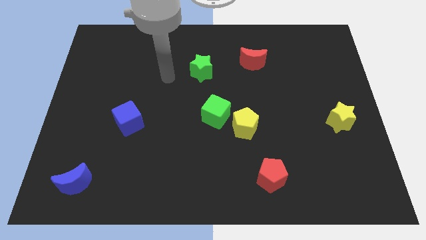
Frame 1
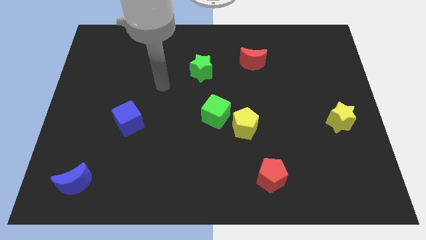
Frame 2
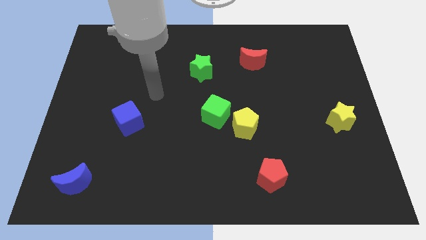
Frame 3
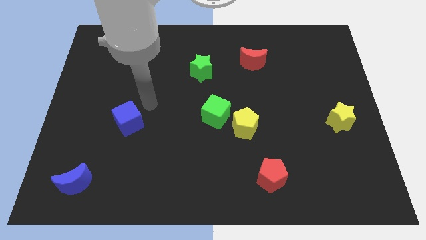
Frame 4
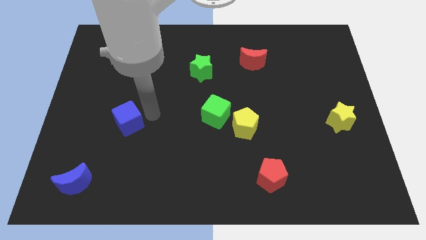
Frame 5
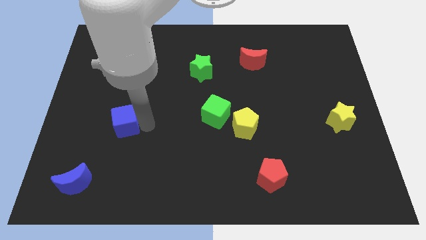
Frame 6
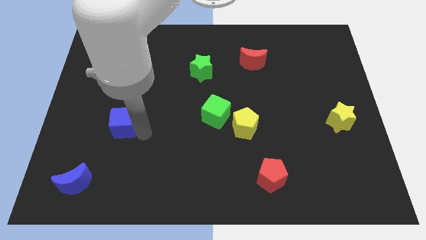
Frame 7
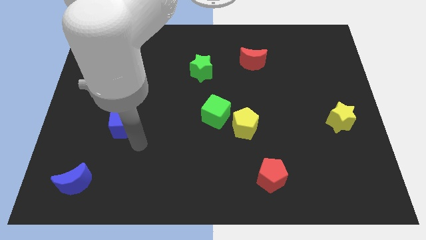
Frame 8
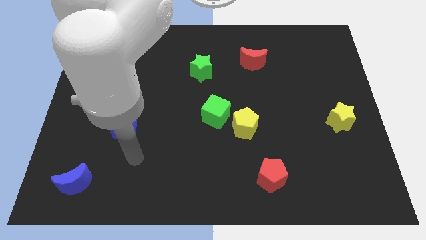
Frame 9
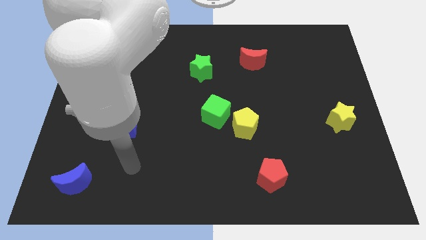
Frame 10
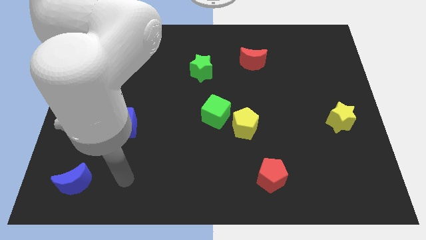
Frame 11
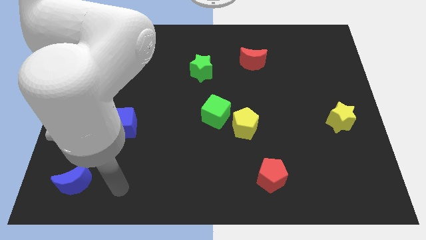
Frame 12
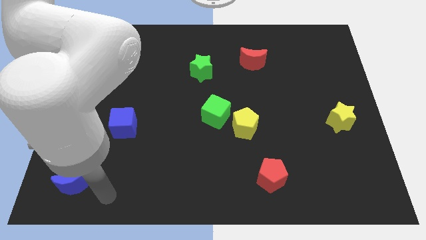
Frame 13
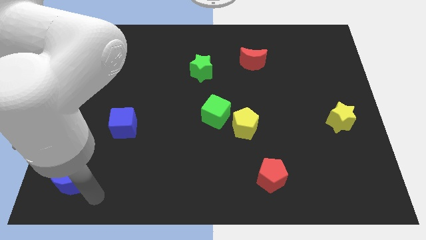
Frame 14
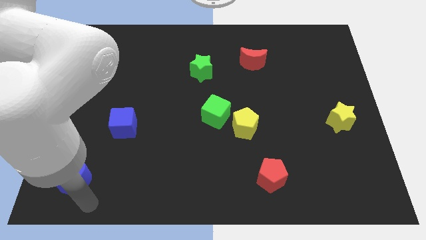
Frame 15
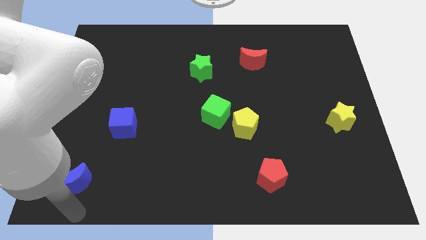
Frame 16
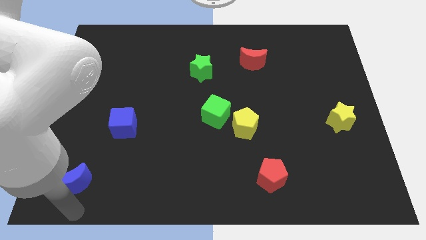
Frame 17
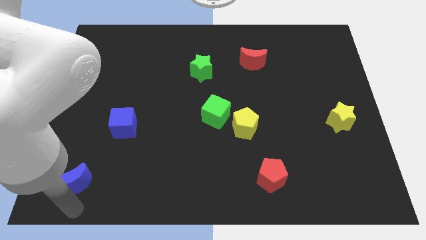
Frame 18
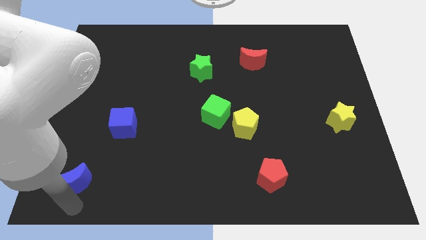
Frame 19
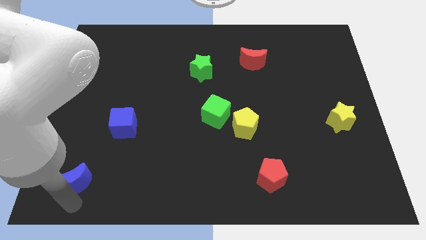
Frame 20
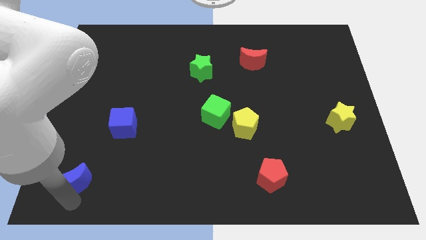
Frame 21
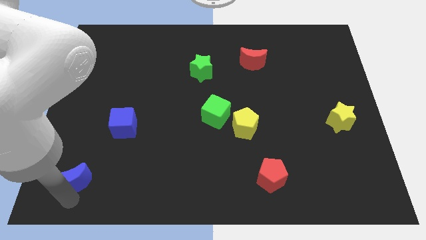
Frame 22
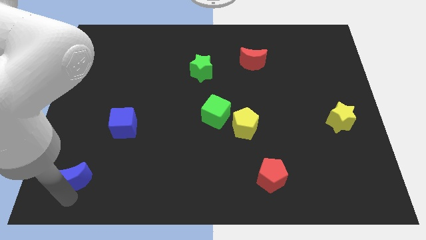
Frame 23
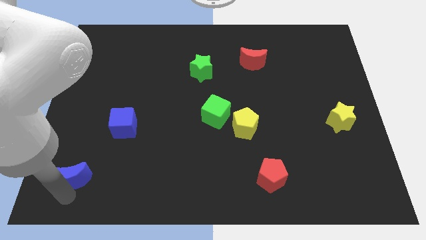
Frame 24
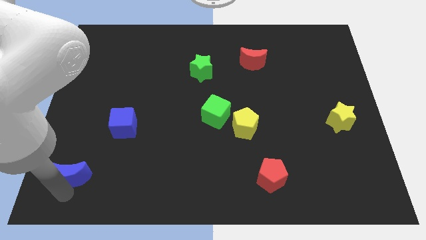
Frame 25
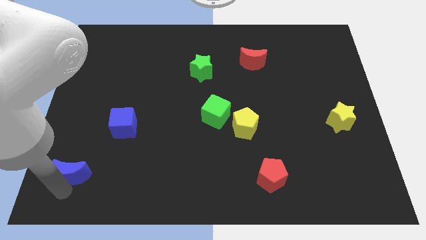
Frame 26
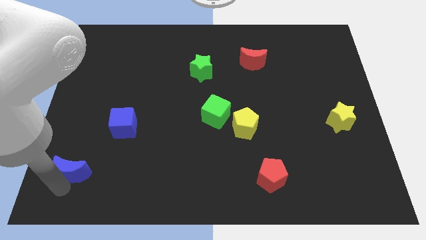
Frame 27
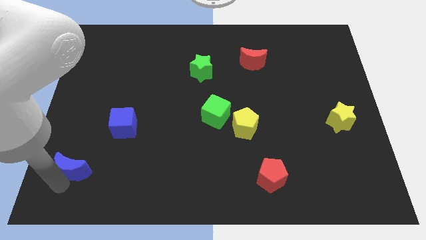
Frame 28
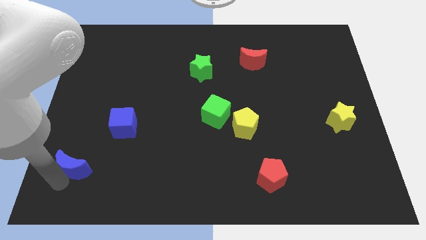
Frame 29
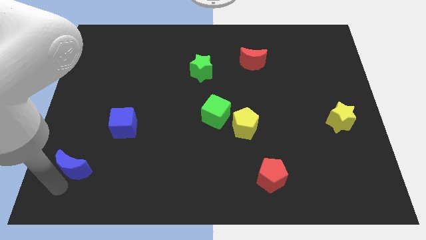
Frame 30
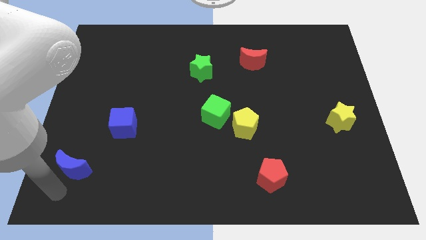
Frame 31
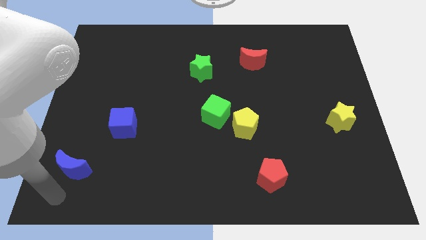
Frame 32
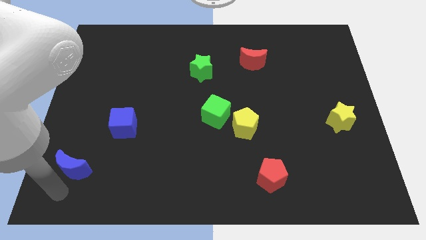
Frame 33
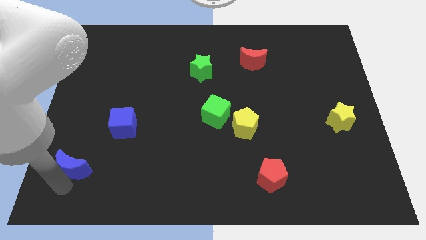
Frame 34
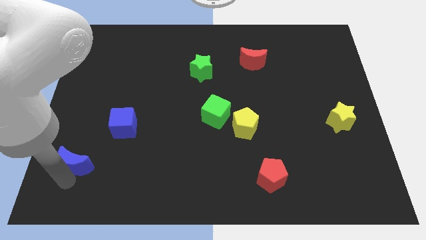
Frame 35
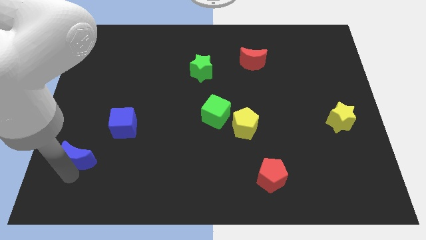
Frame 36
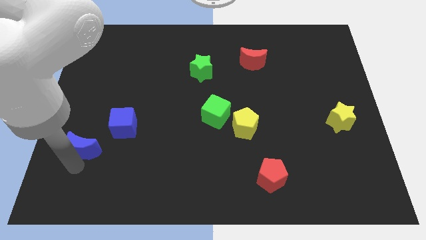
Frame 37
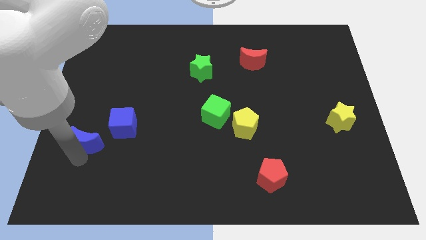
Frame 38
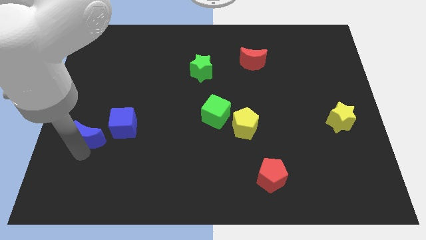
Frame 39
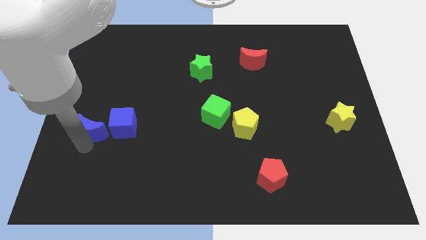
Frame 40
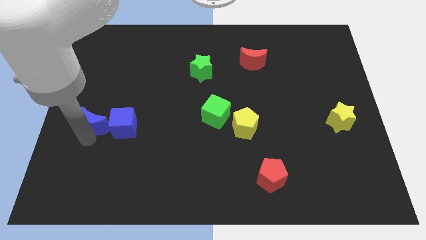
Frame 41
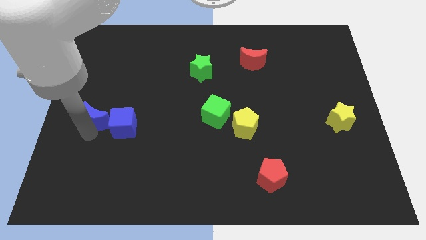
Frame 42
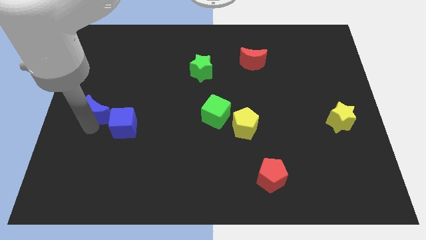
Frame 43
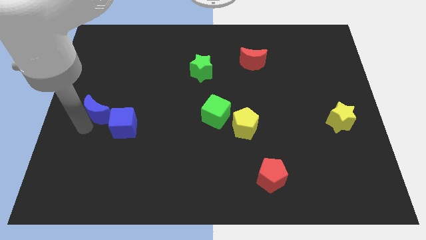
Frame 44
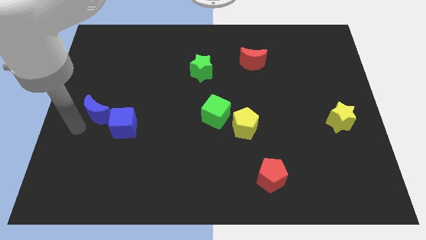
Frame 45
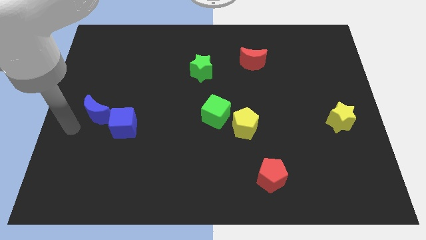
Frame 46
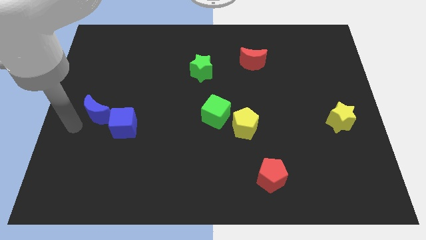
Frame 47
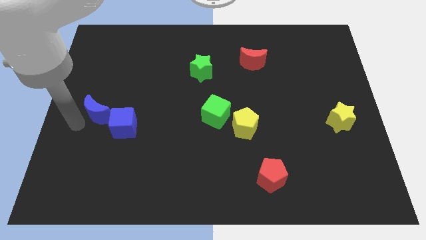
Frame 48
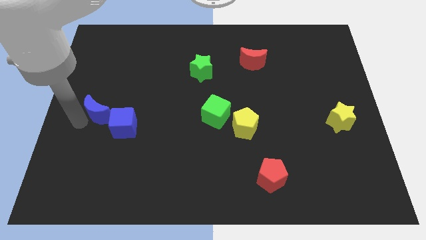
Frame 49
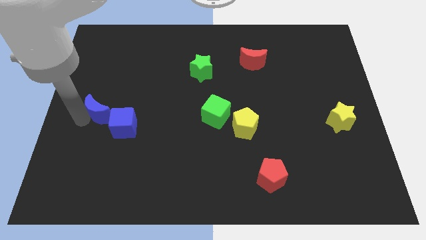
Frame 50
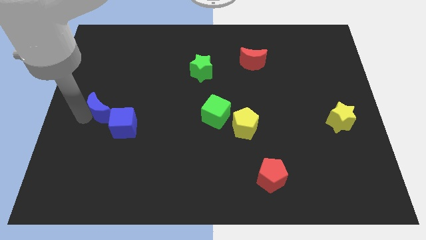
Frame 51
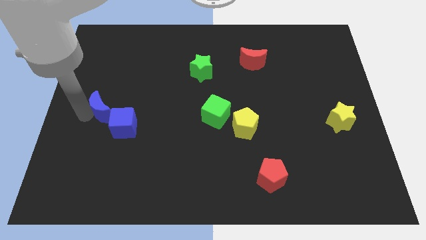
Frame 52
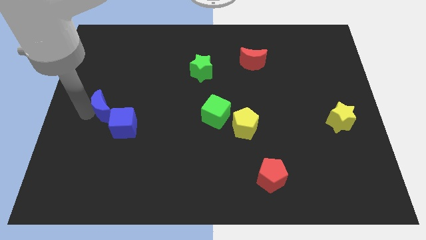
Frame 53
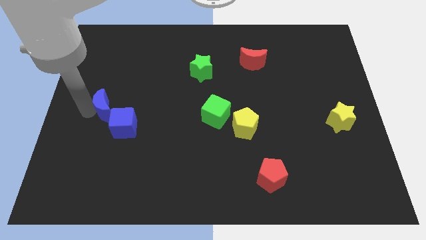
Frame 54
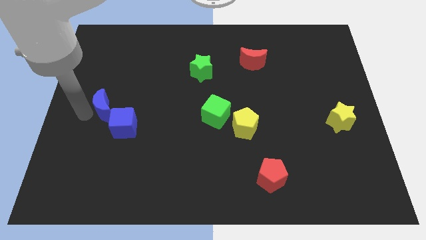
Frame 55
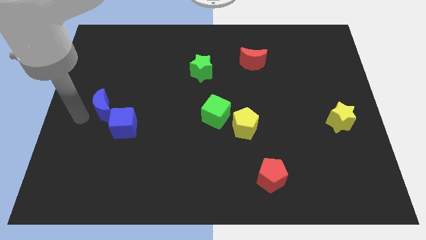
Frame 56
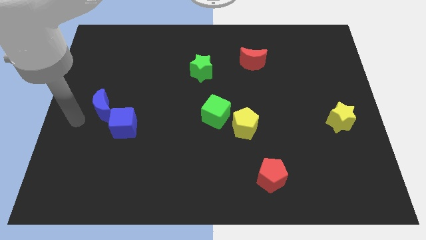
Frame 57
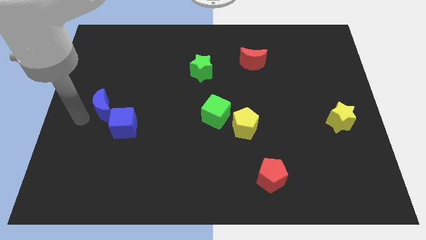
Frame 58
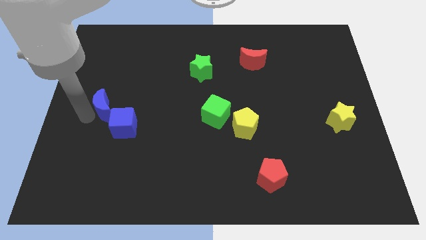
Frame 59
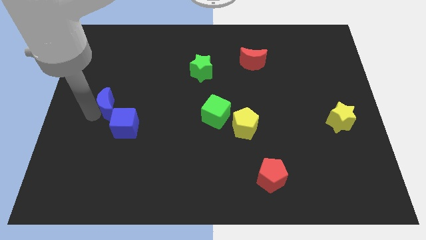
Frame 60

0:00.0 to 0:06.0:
slide the blue moon to the top of the blue cube

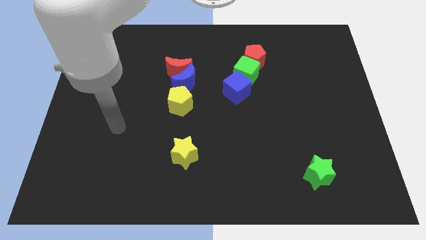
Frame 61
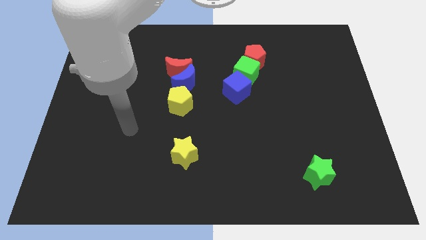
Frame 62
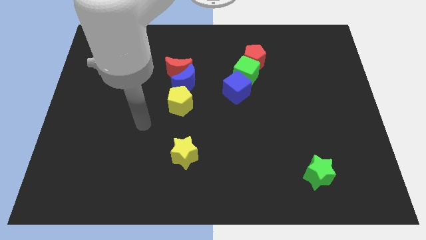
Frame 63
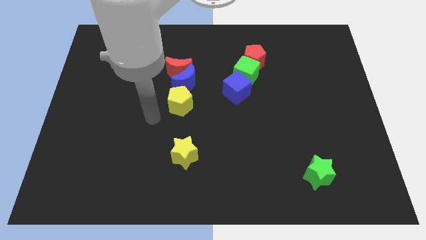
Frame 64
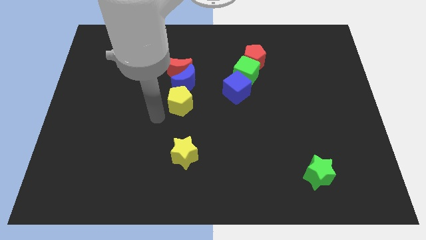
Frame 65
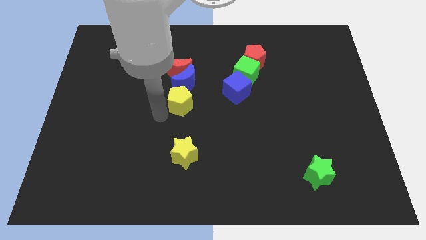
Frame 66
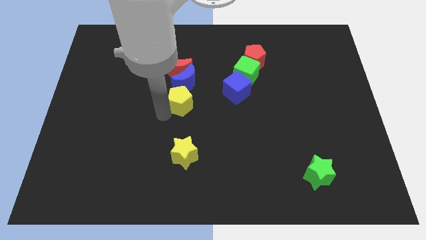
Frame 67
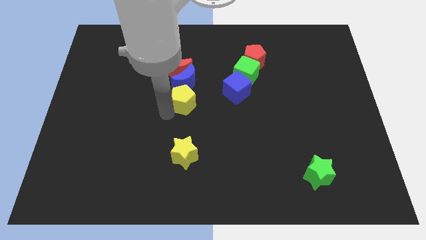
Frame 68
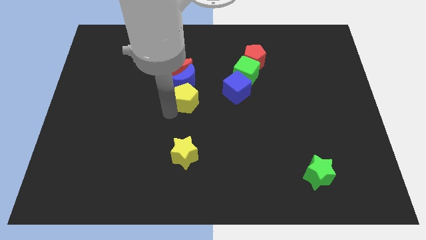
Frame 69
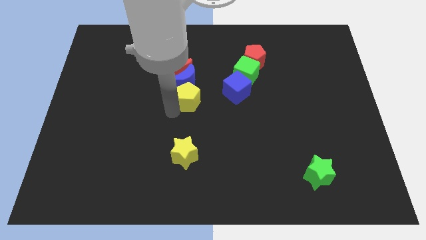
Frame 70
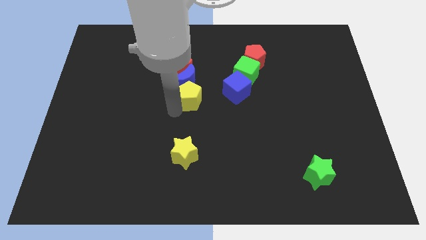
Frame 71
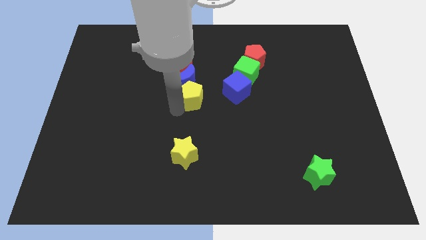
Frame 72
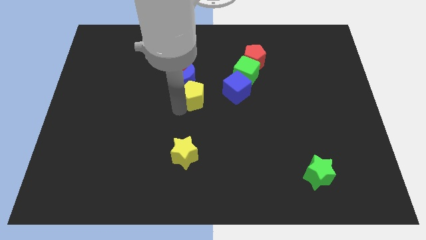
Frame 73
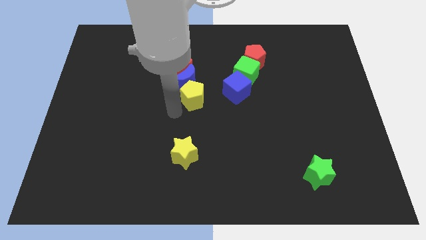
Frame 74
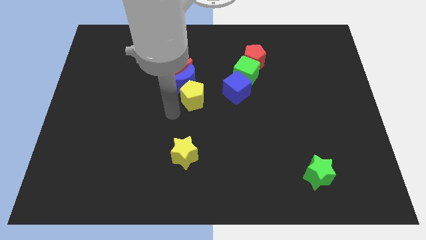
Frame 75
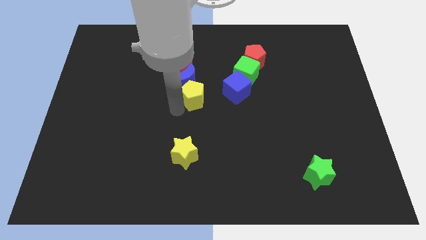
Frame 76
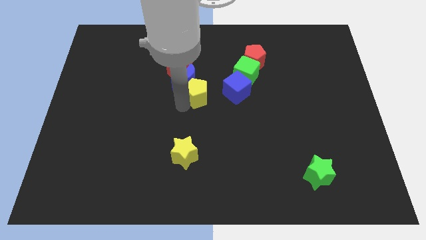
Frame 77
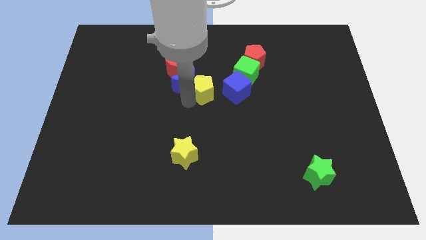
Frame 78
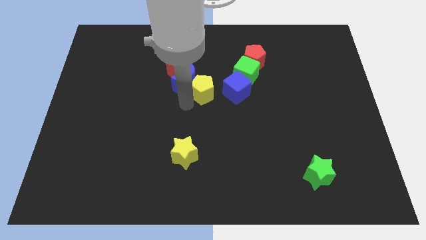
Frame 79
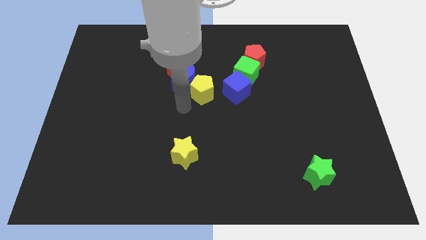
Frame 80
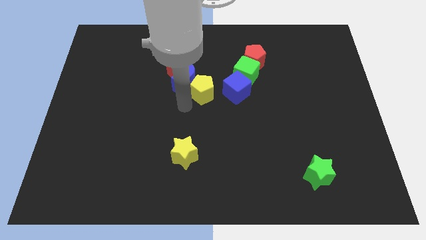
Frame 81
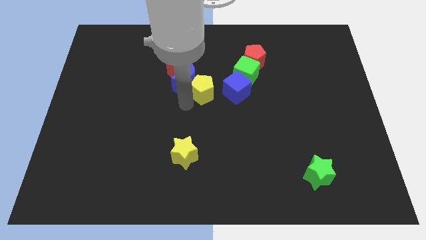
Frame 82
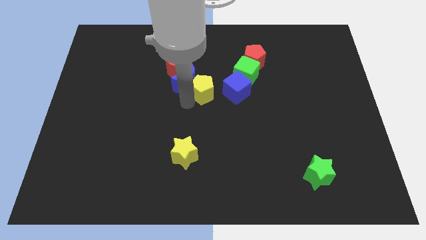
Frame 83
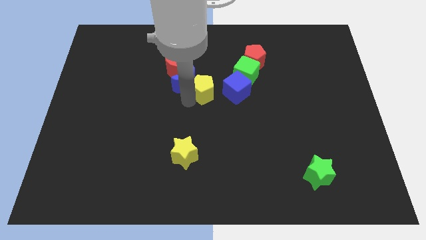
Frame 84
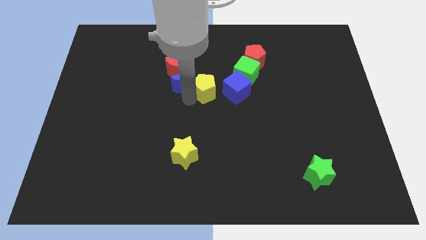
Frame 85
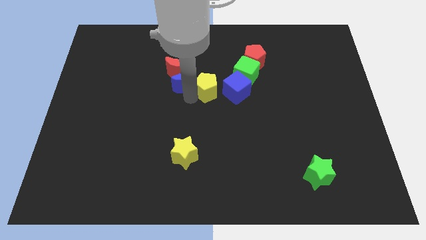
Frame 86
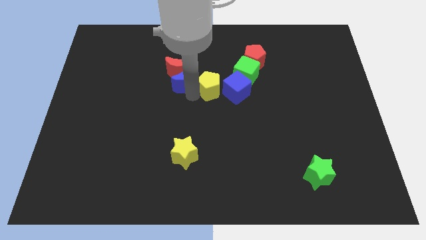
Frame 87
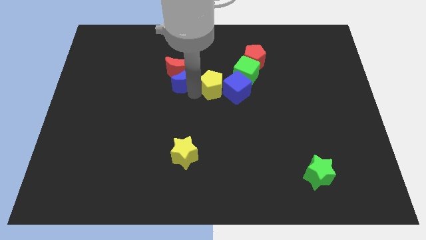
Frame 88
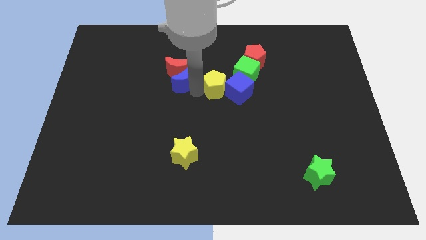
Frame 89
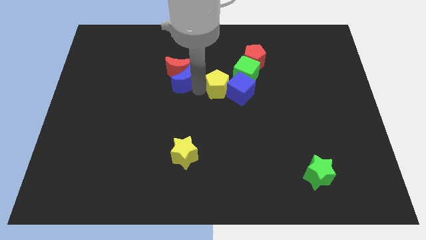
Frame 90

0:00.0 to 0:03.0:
slide the yellow pentagon to the bottom left side of the red pentagon
